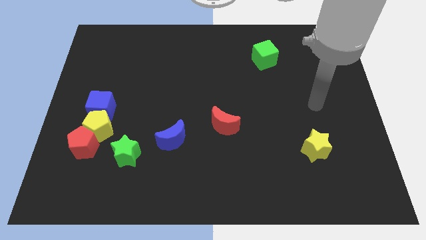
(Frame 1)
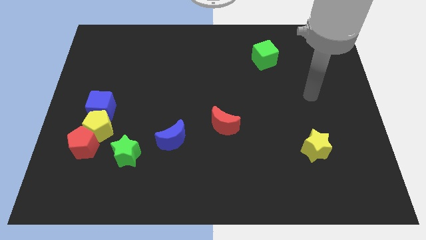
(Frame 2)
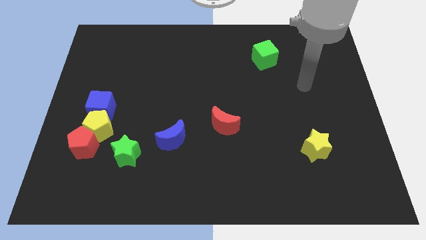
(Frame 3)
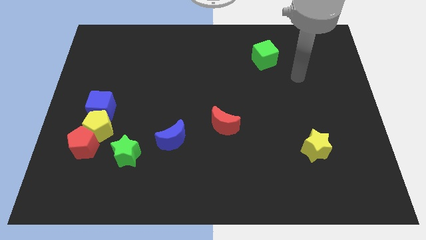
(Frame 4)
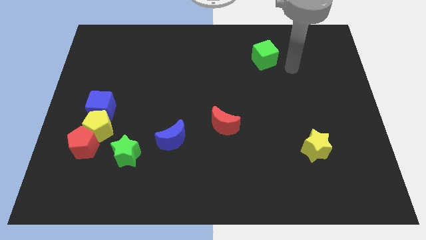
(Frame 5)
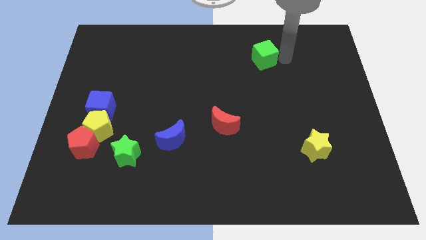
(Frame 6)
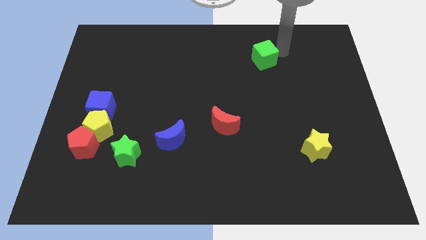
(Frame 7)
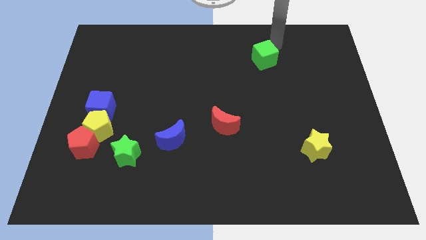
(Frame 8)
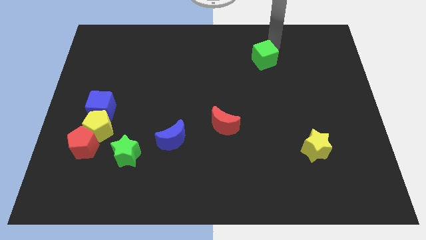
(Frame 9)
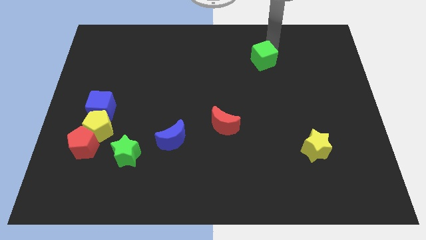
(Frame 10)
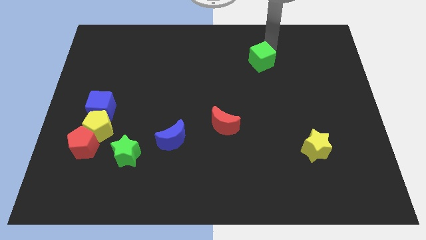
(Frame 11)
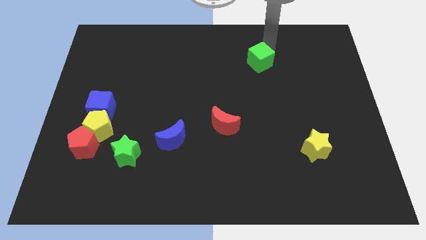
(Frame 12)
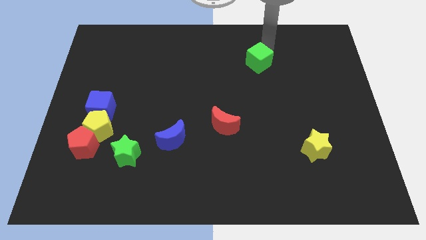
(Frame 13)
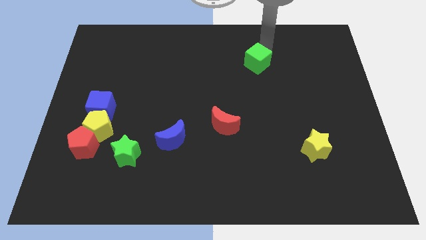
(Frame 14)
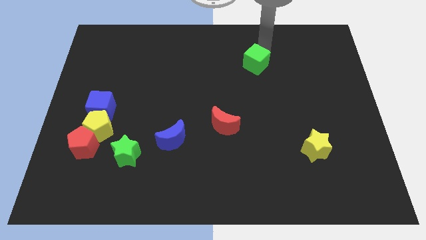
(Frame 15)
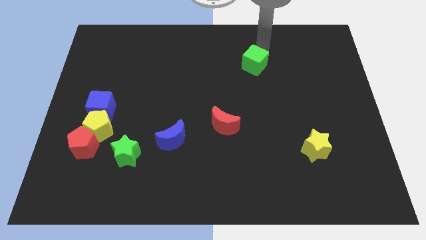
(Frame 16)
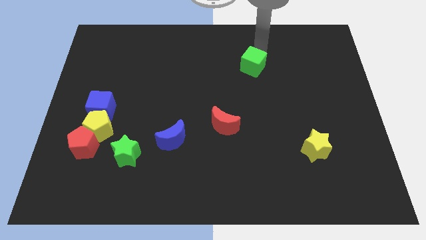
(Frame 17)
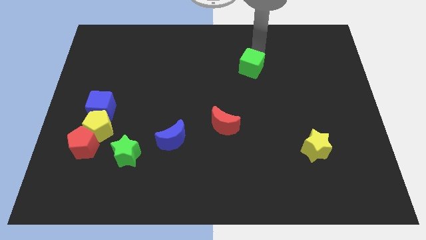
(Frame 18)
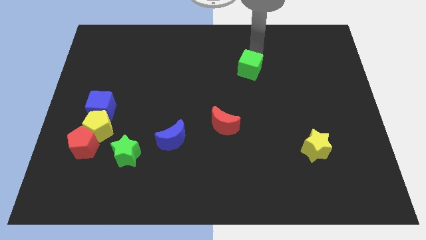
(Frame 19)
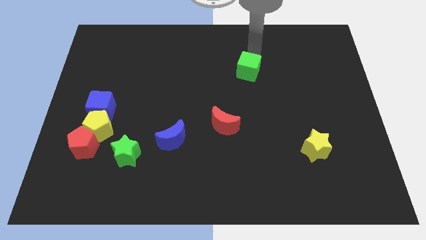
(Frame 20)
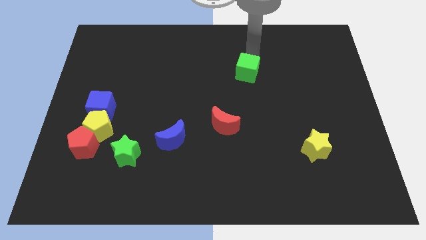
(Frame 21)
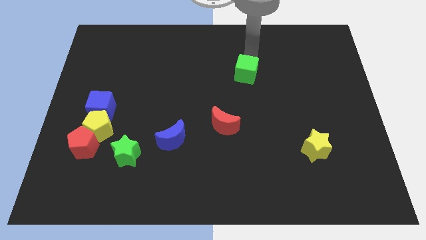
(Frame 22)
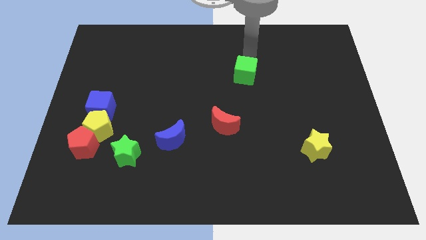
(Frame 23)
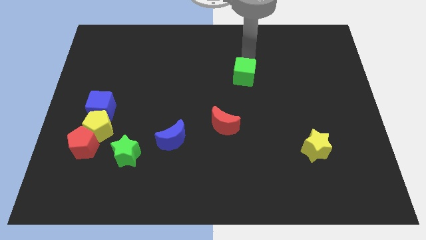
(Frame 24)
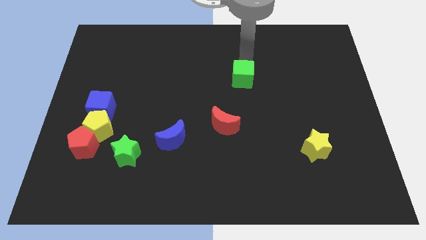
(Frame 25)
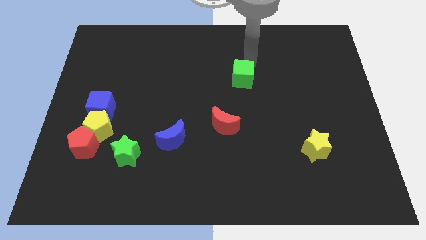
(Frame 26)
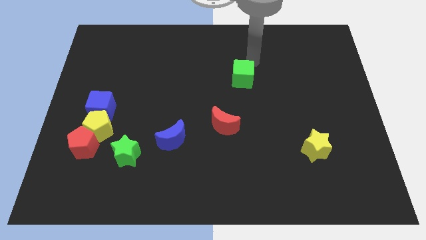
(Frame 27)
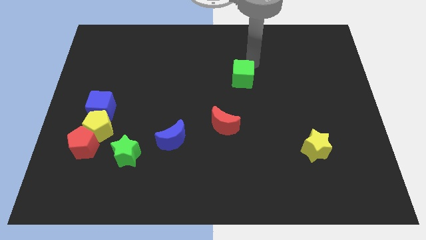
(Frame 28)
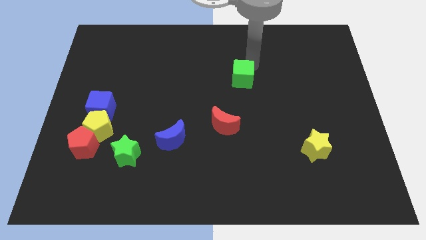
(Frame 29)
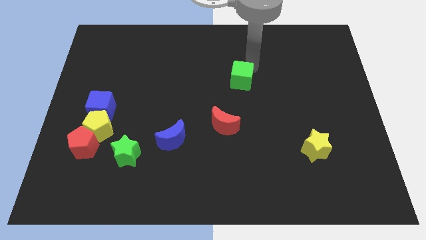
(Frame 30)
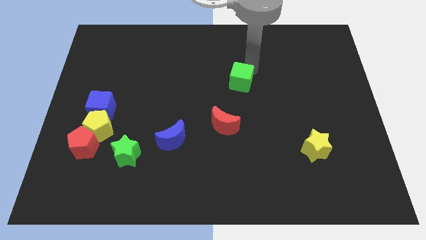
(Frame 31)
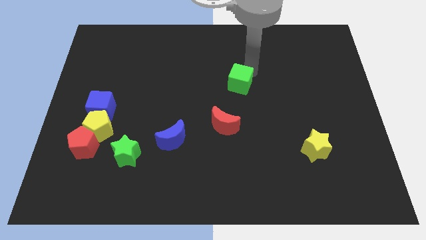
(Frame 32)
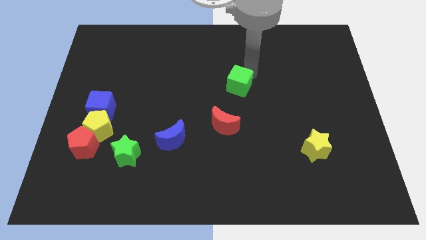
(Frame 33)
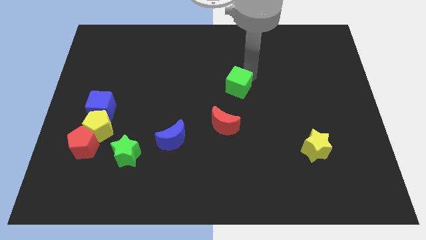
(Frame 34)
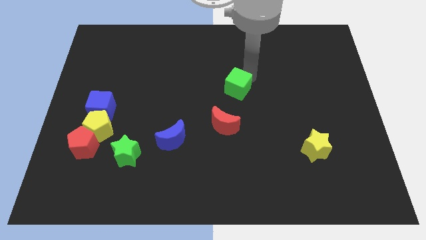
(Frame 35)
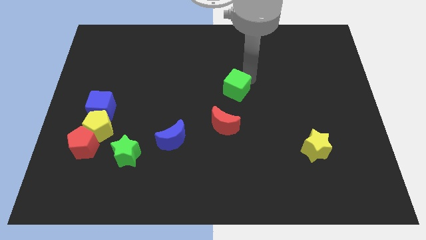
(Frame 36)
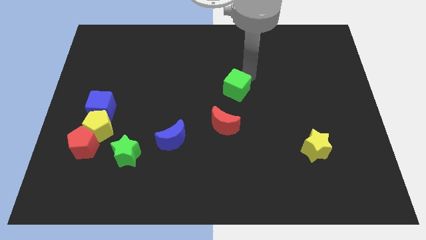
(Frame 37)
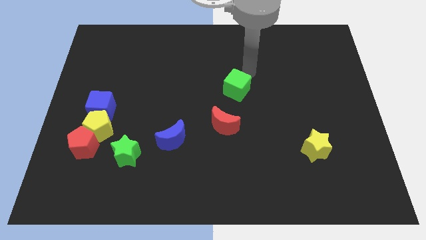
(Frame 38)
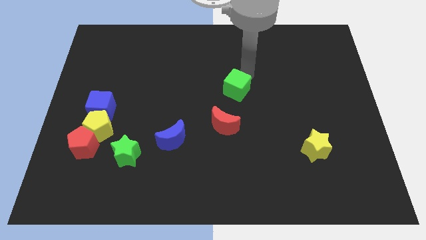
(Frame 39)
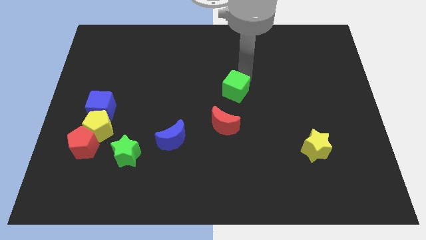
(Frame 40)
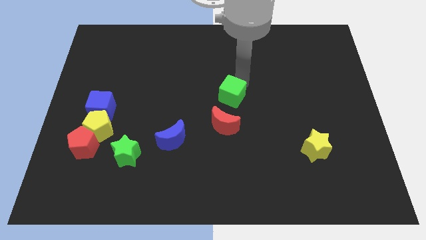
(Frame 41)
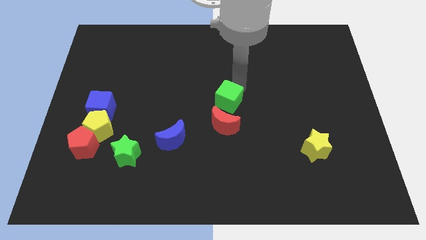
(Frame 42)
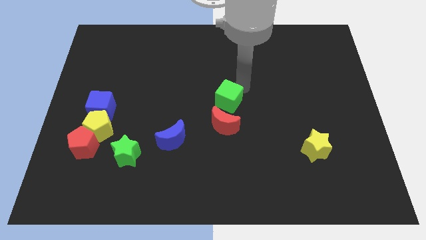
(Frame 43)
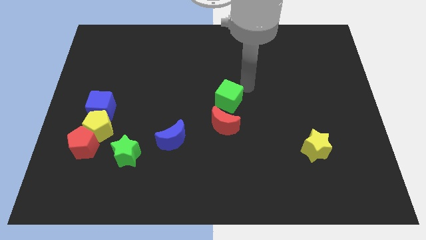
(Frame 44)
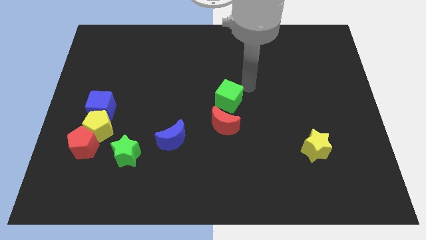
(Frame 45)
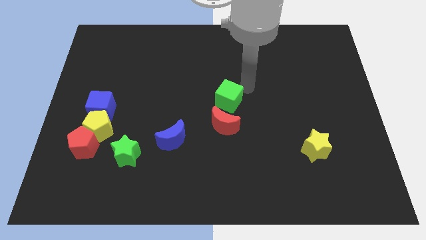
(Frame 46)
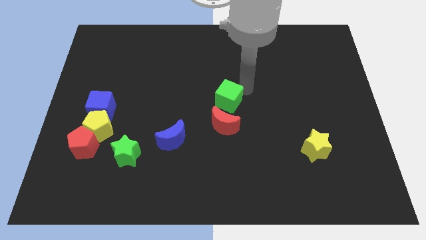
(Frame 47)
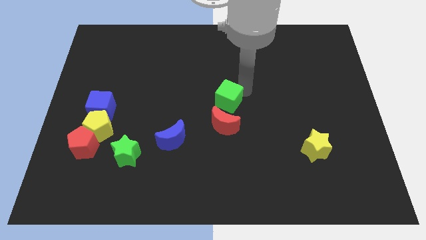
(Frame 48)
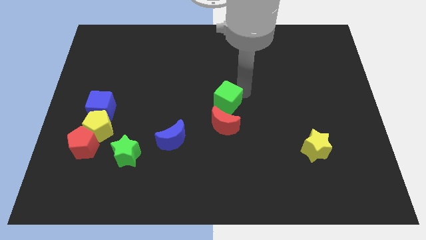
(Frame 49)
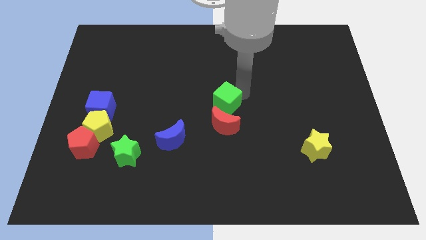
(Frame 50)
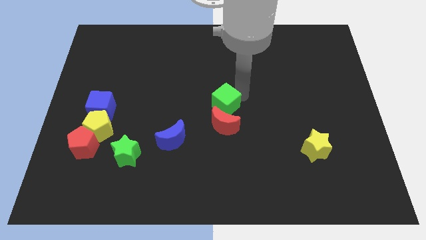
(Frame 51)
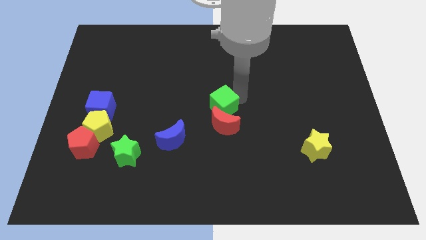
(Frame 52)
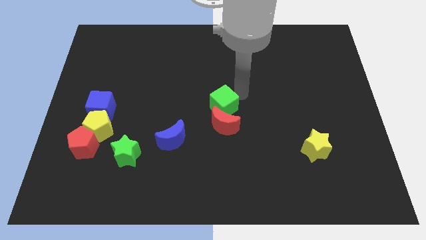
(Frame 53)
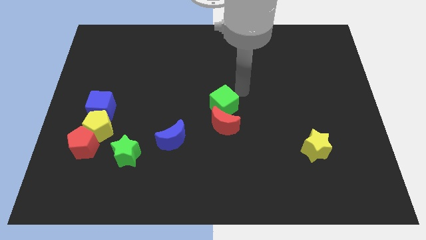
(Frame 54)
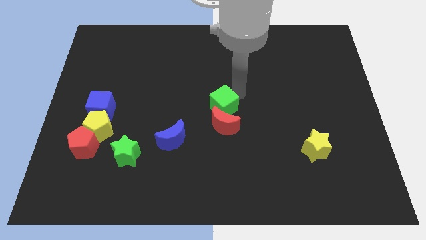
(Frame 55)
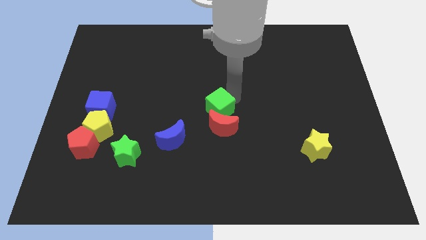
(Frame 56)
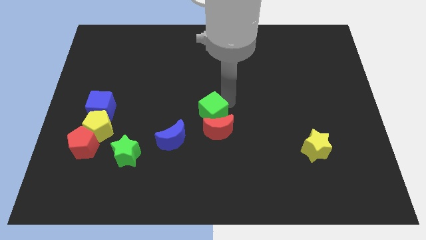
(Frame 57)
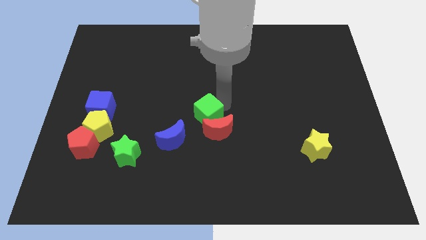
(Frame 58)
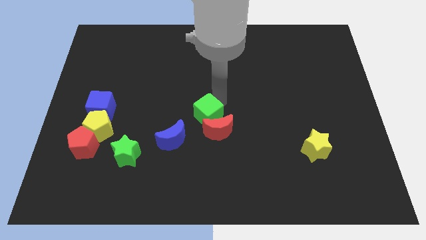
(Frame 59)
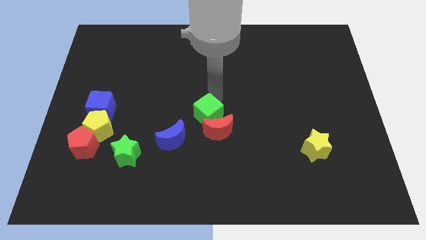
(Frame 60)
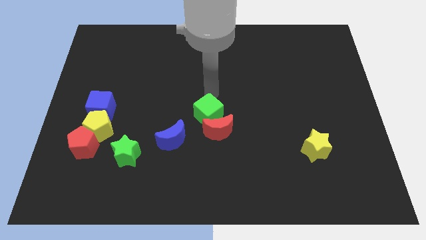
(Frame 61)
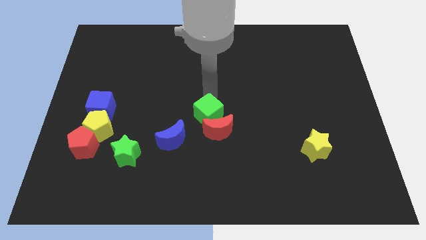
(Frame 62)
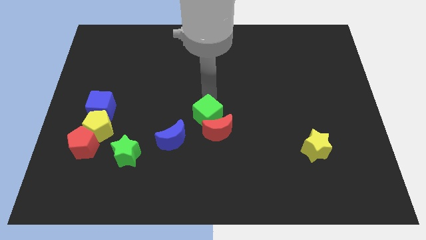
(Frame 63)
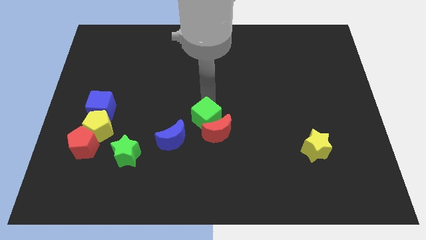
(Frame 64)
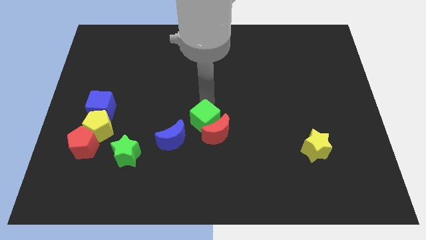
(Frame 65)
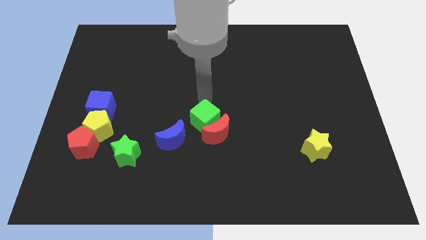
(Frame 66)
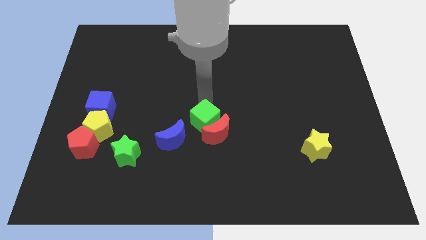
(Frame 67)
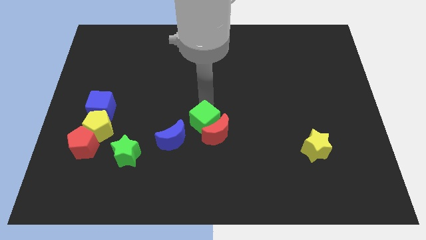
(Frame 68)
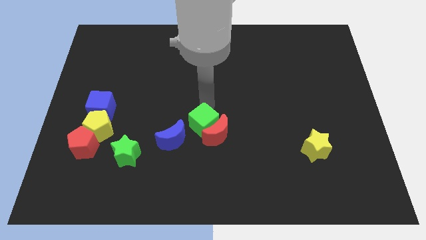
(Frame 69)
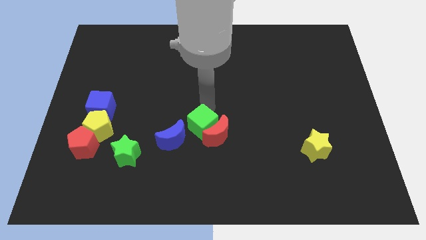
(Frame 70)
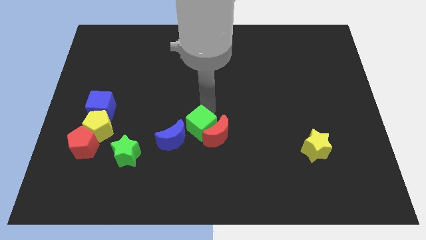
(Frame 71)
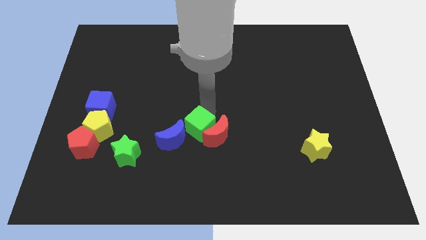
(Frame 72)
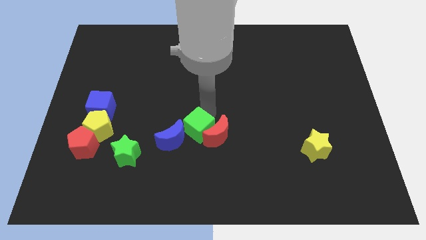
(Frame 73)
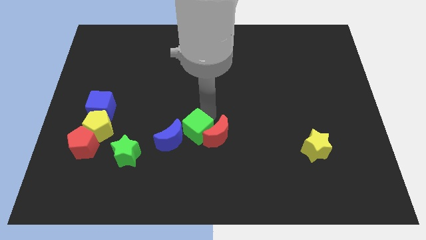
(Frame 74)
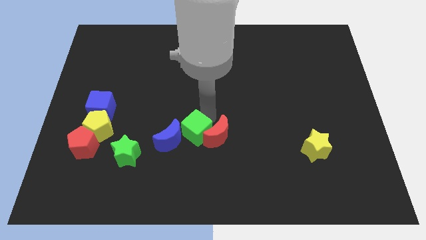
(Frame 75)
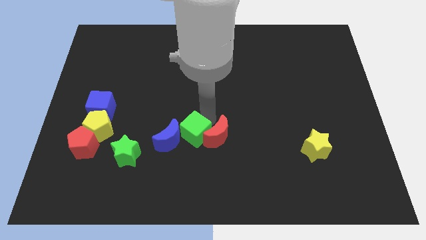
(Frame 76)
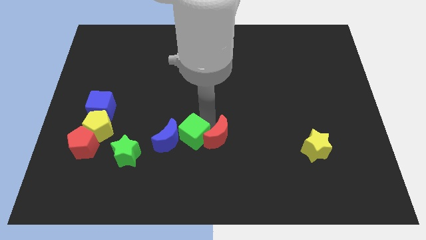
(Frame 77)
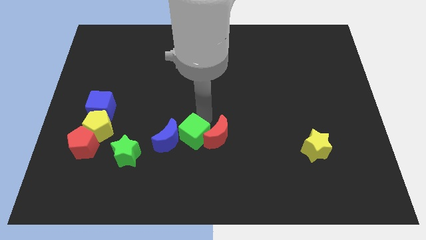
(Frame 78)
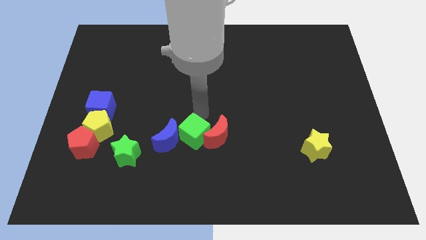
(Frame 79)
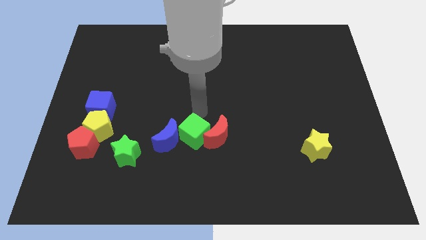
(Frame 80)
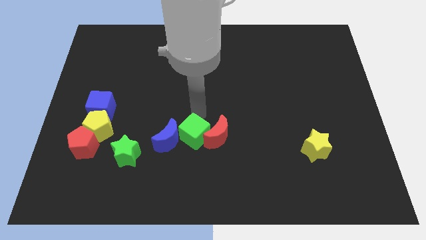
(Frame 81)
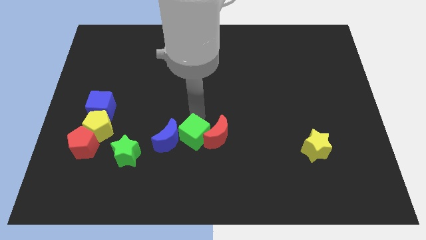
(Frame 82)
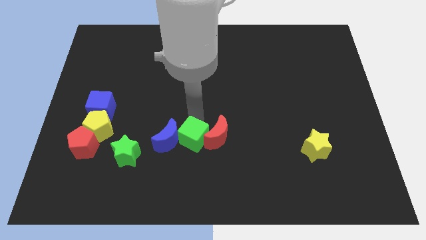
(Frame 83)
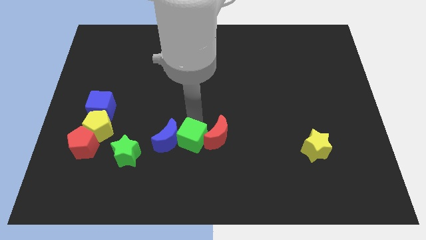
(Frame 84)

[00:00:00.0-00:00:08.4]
put the green cube just right of the green star
